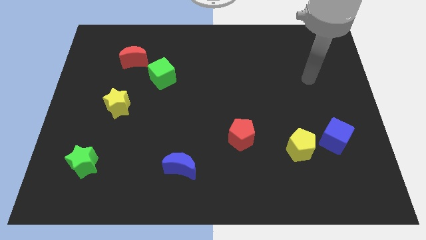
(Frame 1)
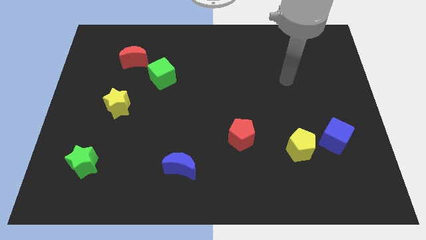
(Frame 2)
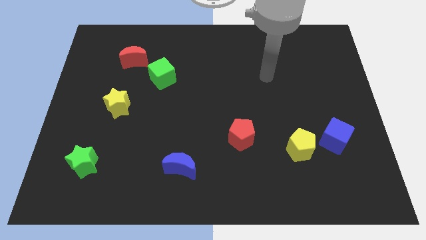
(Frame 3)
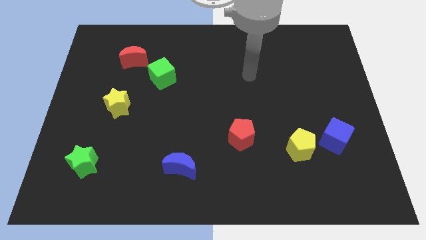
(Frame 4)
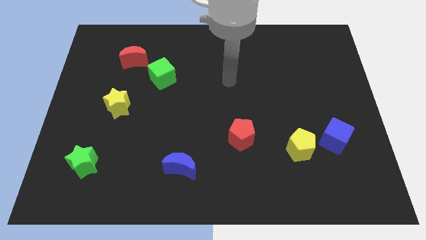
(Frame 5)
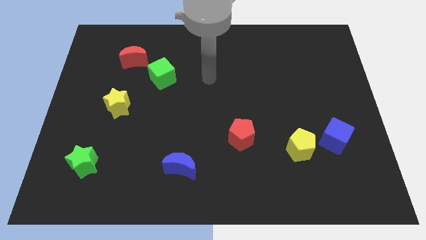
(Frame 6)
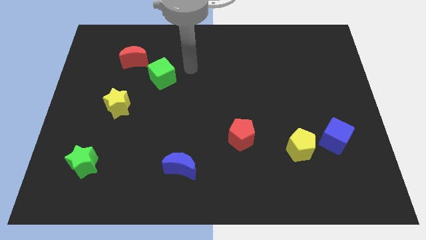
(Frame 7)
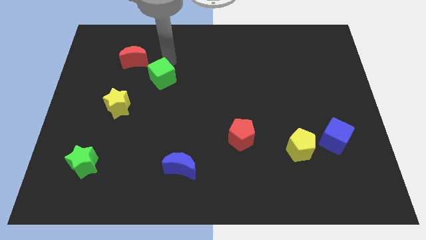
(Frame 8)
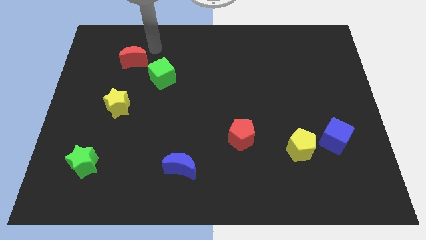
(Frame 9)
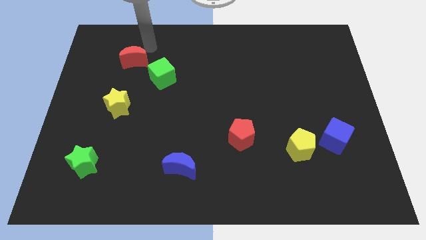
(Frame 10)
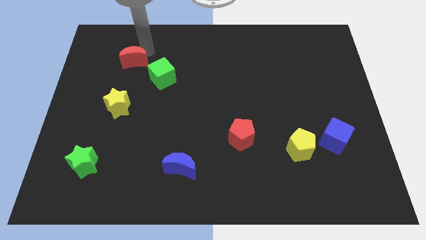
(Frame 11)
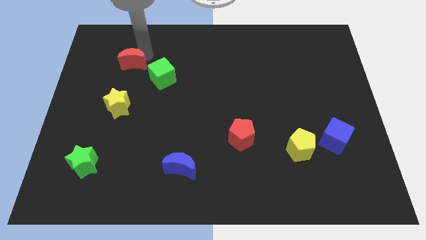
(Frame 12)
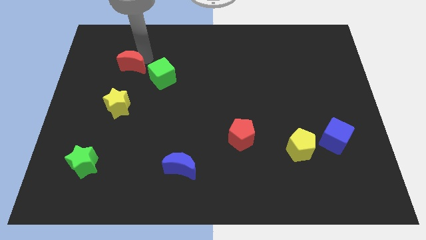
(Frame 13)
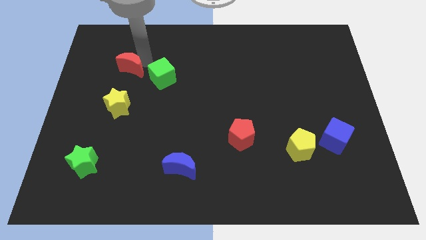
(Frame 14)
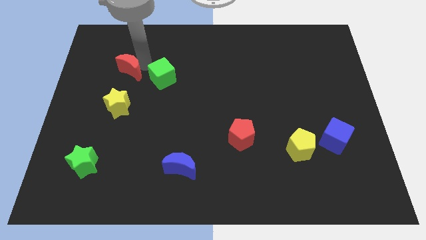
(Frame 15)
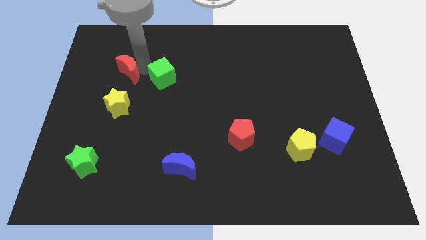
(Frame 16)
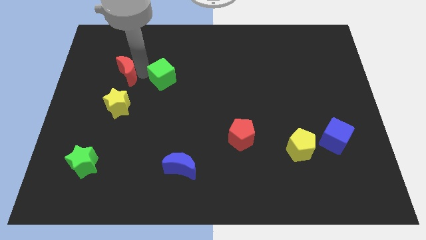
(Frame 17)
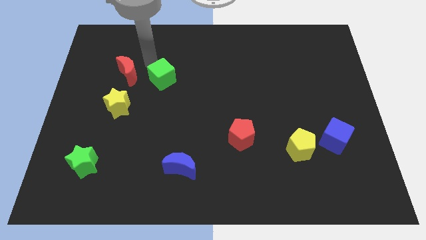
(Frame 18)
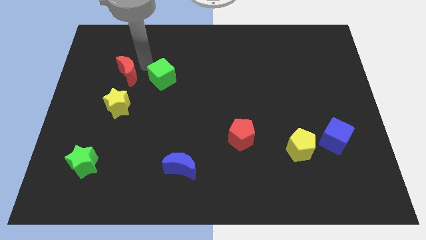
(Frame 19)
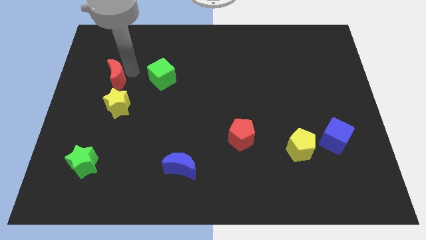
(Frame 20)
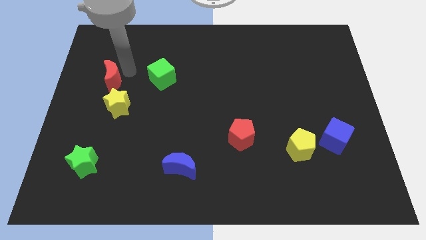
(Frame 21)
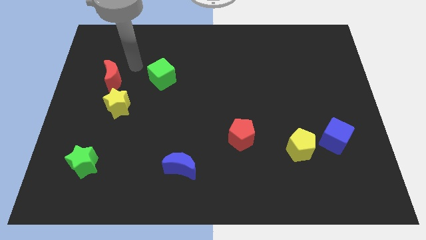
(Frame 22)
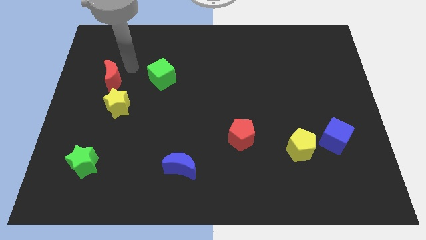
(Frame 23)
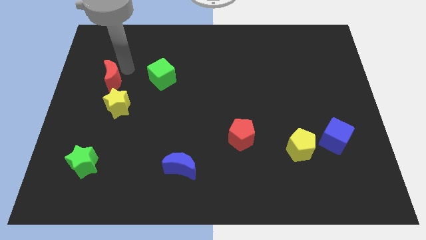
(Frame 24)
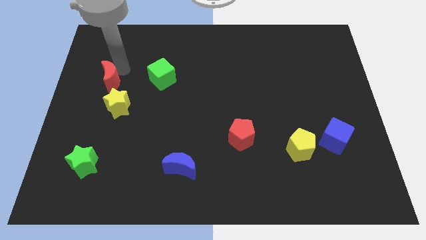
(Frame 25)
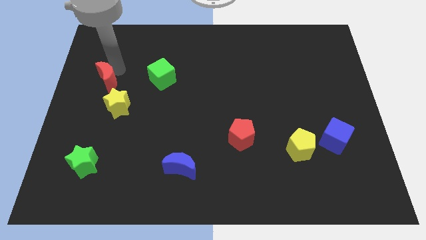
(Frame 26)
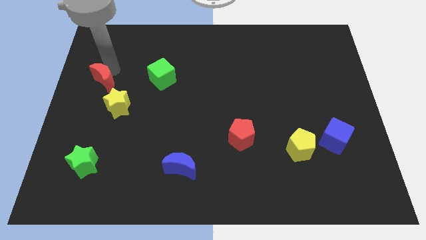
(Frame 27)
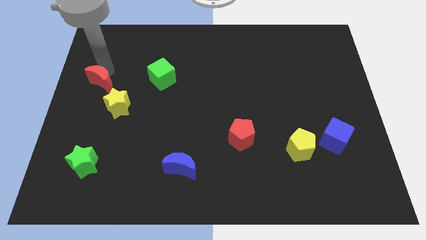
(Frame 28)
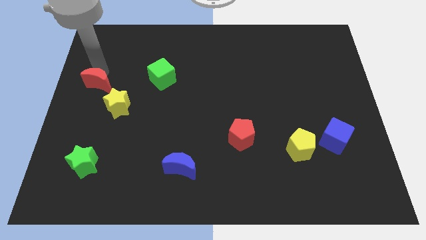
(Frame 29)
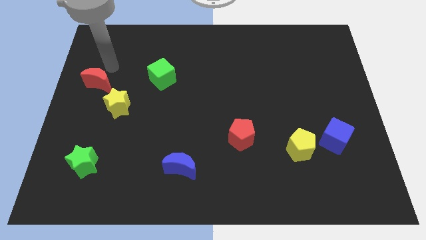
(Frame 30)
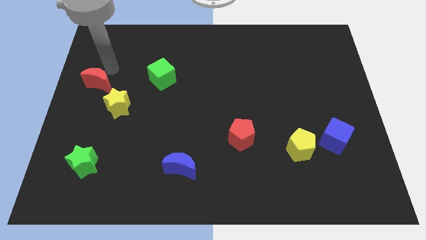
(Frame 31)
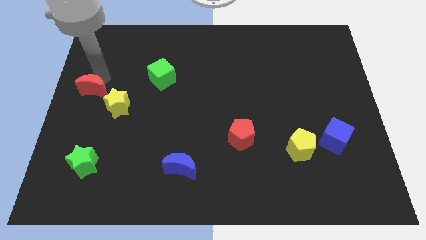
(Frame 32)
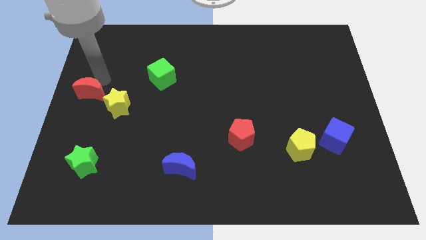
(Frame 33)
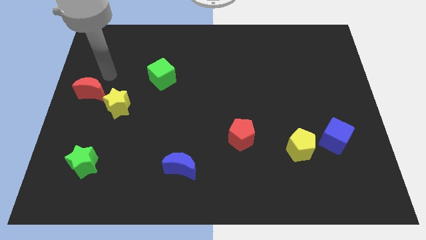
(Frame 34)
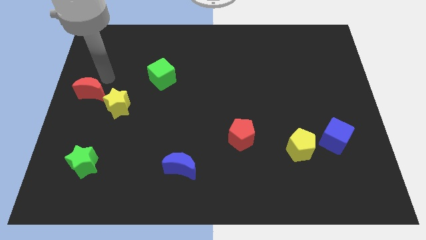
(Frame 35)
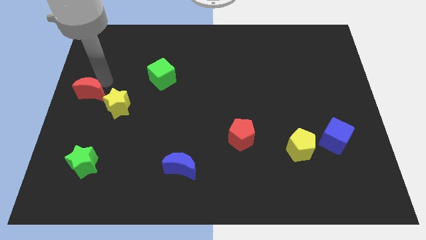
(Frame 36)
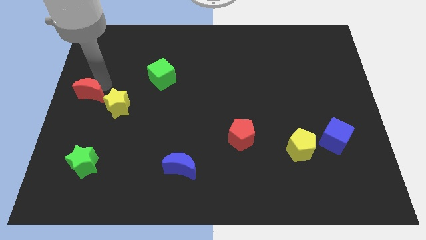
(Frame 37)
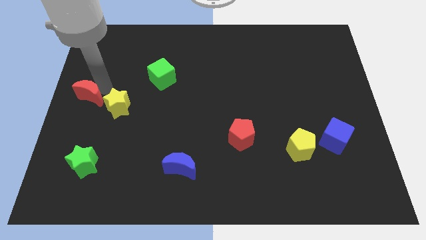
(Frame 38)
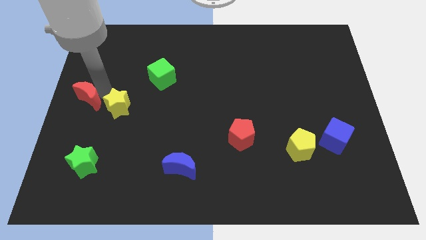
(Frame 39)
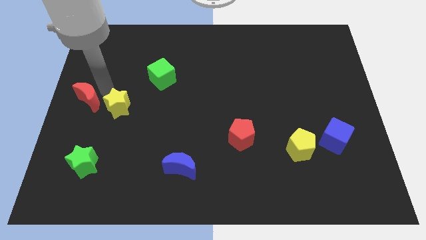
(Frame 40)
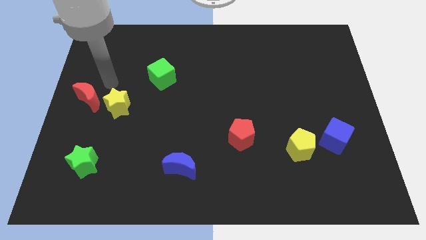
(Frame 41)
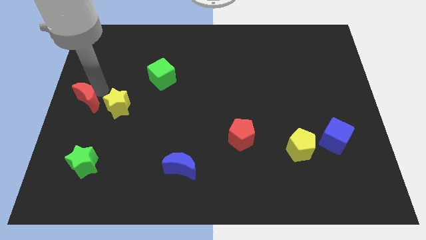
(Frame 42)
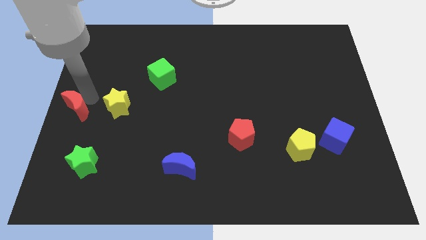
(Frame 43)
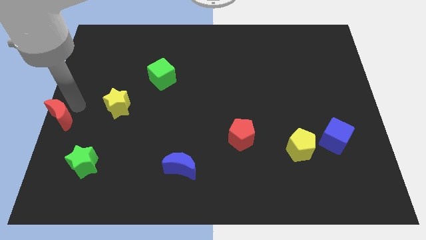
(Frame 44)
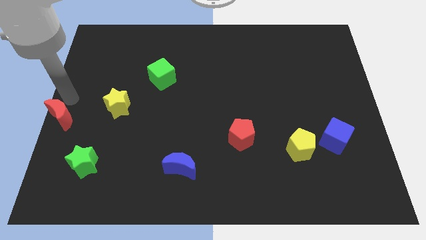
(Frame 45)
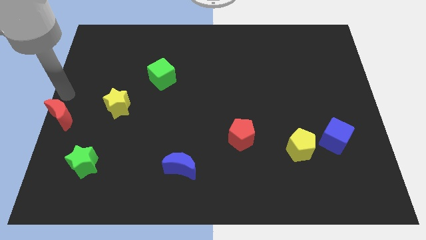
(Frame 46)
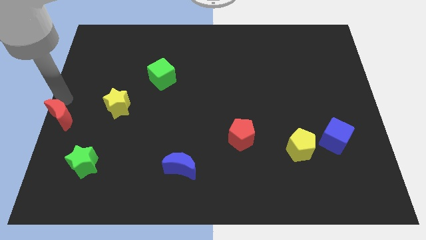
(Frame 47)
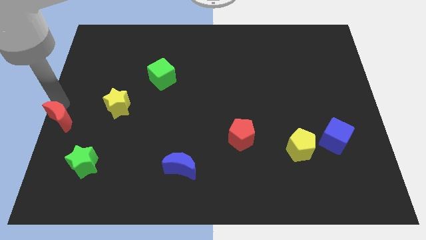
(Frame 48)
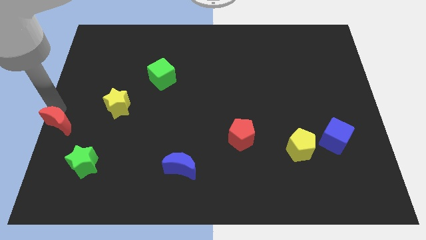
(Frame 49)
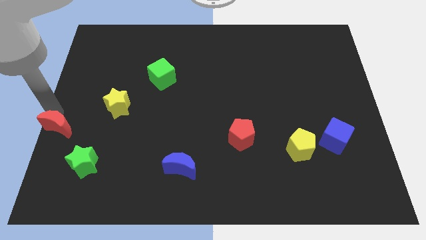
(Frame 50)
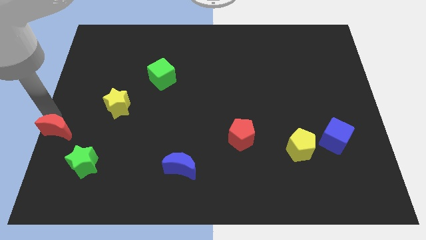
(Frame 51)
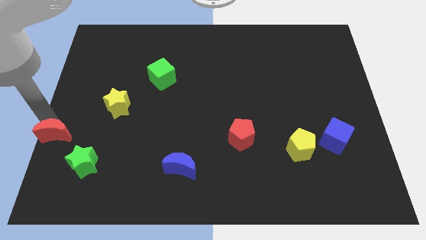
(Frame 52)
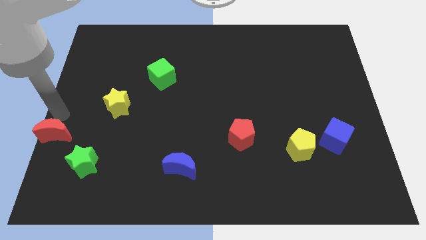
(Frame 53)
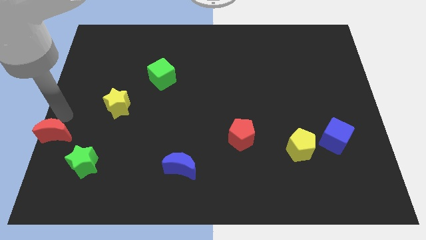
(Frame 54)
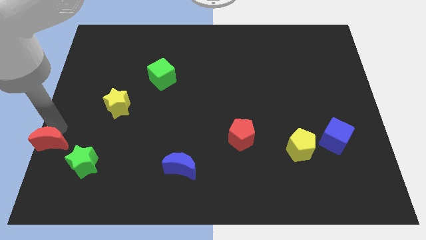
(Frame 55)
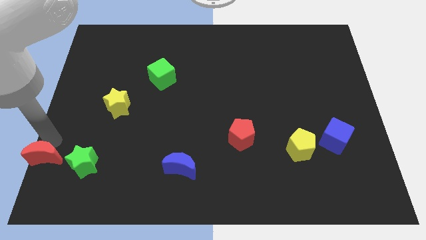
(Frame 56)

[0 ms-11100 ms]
slide the red moon to the bottom left corner

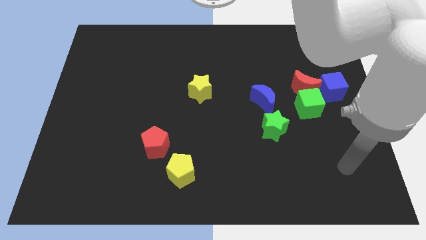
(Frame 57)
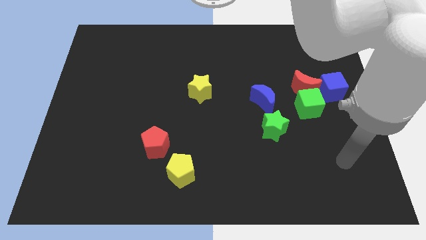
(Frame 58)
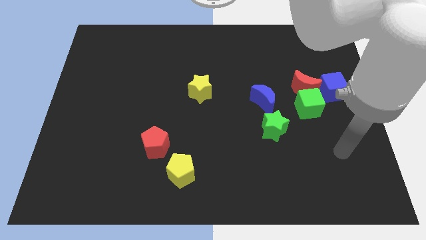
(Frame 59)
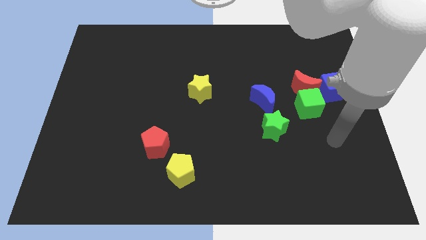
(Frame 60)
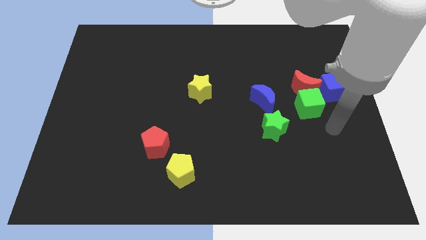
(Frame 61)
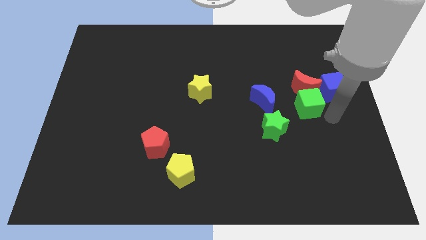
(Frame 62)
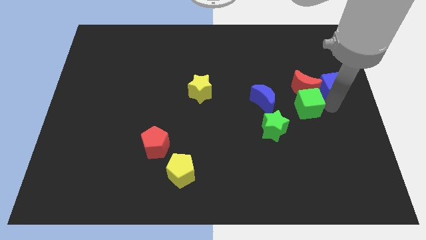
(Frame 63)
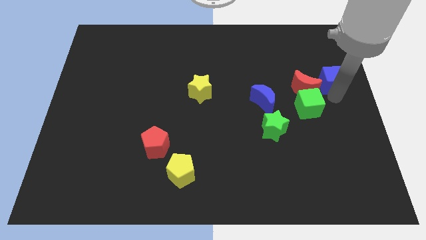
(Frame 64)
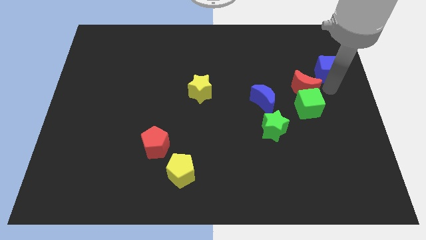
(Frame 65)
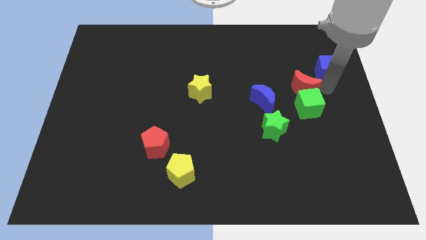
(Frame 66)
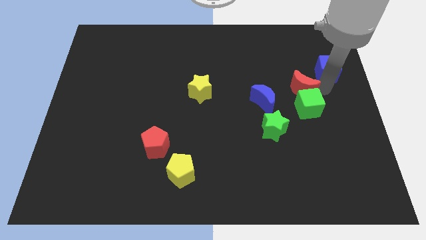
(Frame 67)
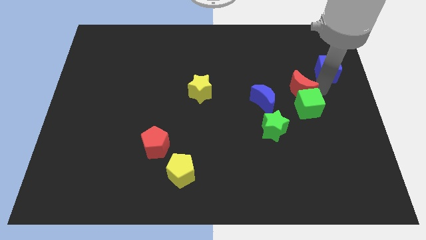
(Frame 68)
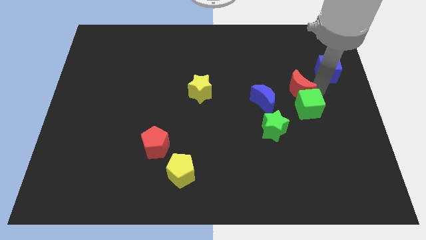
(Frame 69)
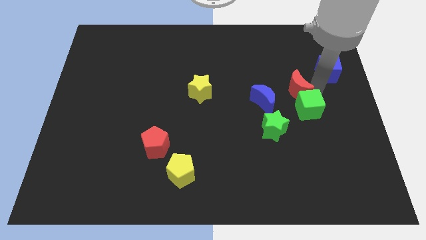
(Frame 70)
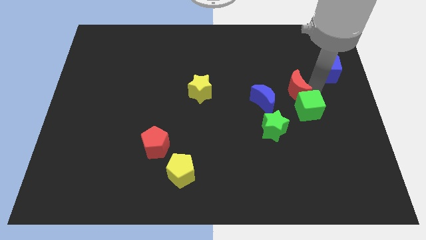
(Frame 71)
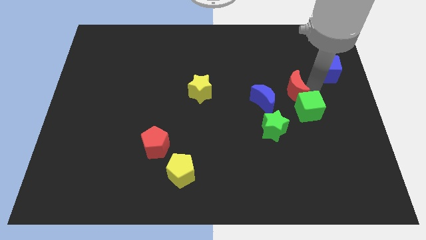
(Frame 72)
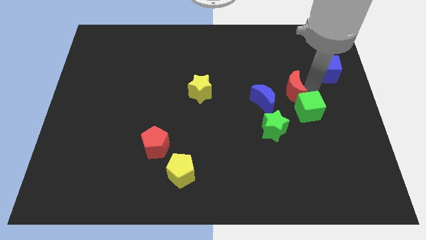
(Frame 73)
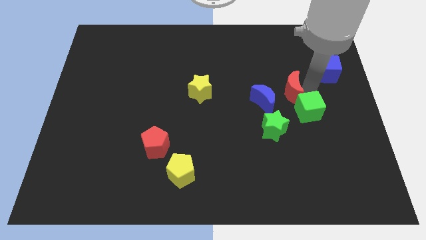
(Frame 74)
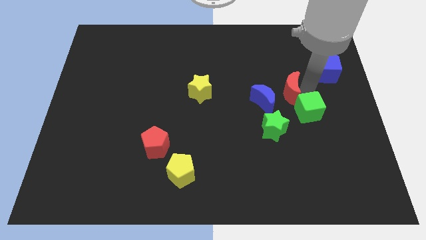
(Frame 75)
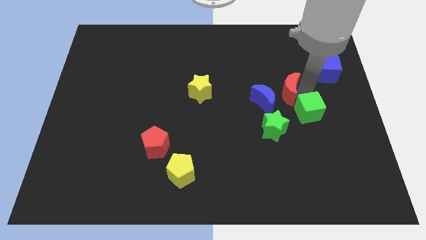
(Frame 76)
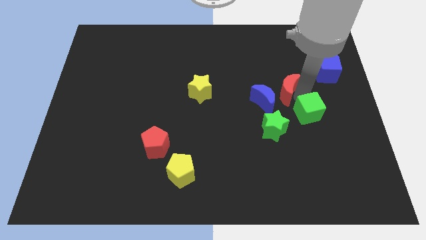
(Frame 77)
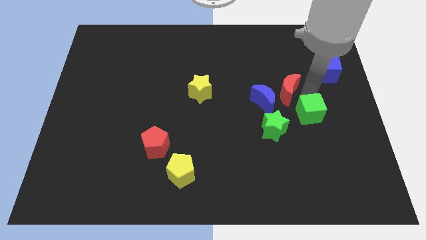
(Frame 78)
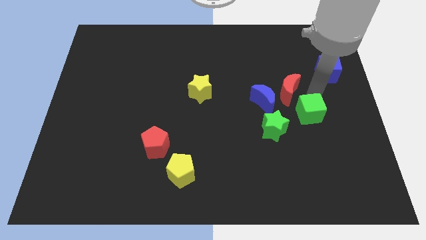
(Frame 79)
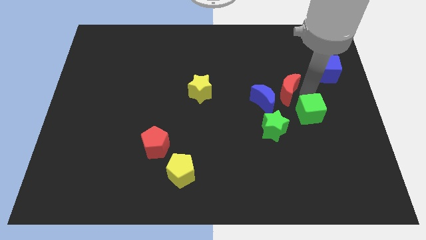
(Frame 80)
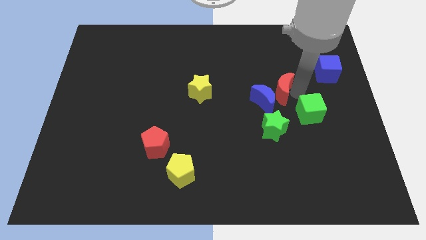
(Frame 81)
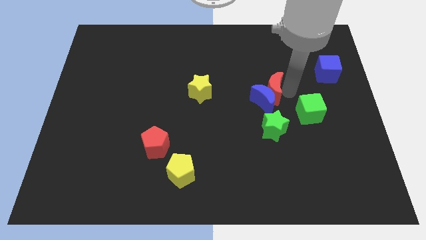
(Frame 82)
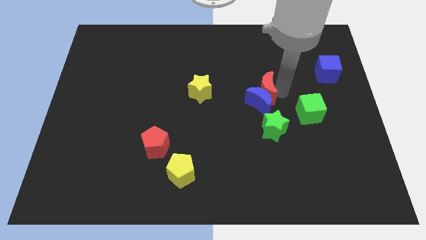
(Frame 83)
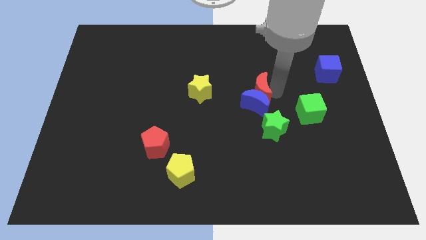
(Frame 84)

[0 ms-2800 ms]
move the red moon to the center of the board
